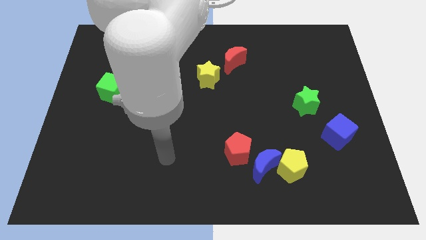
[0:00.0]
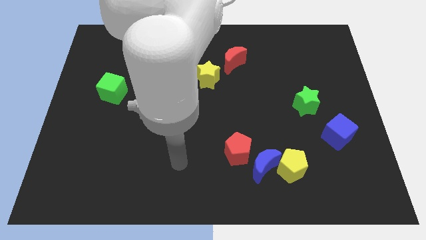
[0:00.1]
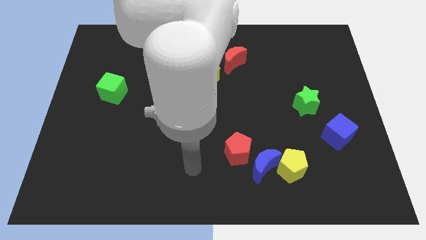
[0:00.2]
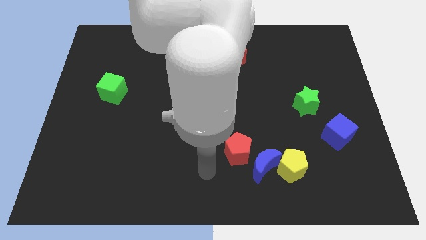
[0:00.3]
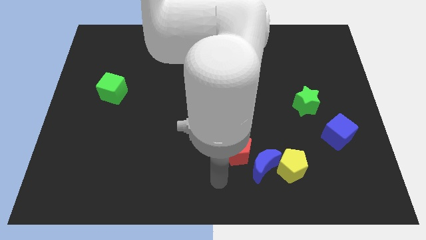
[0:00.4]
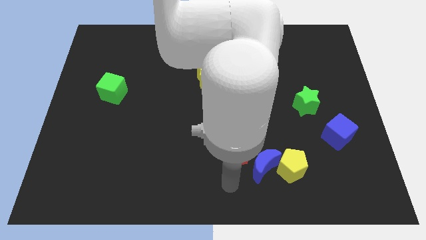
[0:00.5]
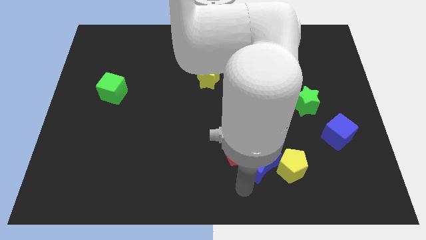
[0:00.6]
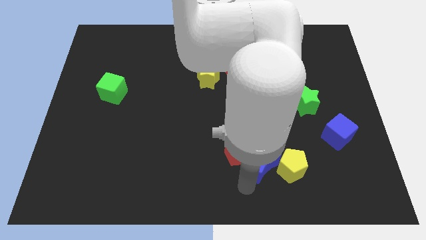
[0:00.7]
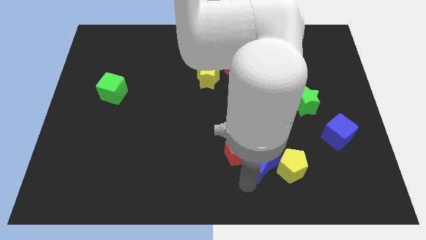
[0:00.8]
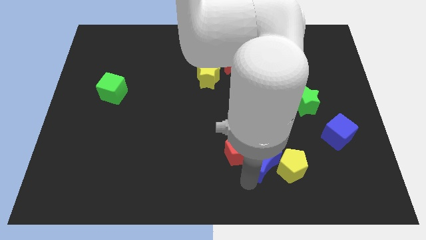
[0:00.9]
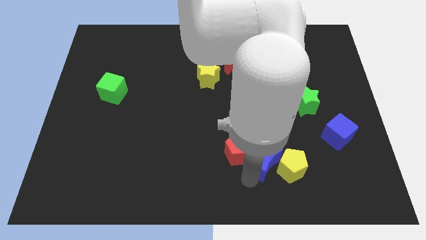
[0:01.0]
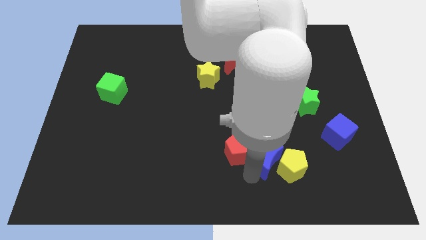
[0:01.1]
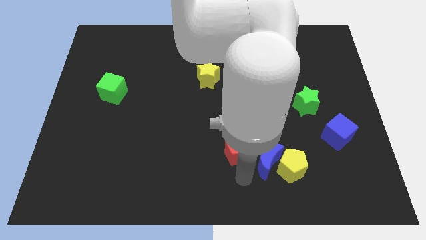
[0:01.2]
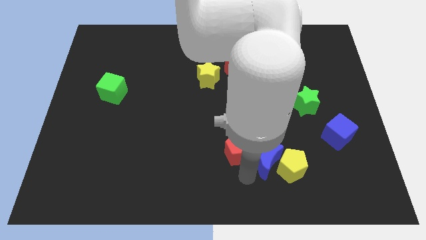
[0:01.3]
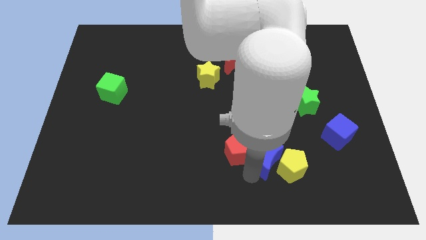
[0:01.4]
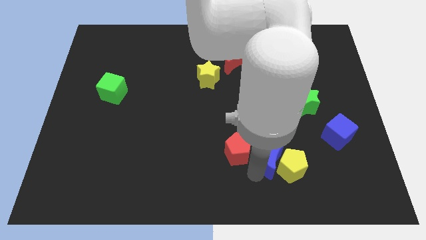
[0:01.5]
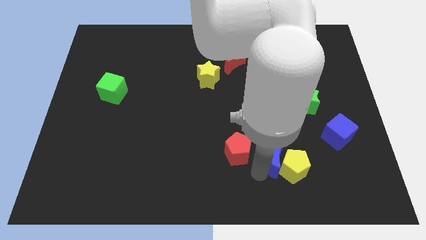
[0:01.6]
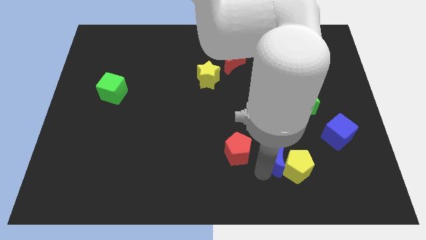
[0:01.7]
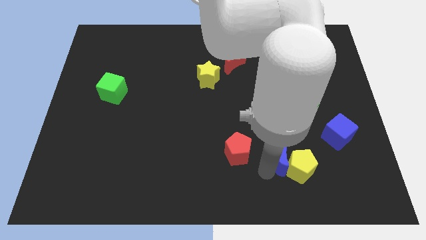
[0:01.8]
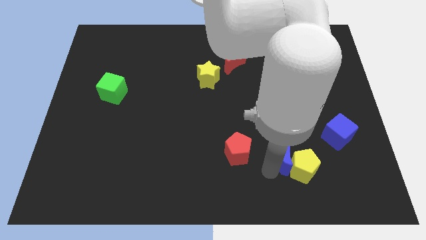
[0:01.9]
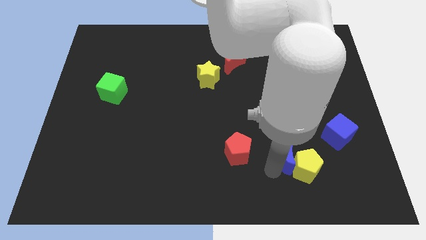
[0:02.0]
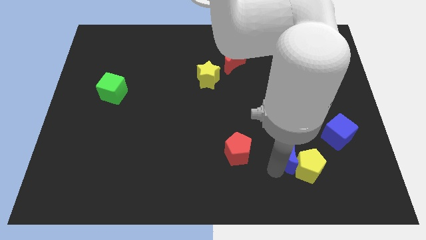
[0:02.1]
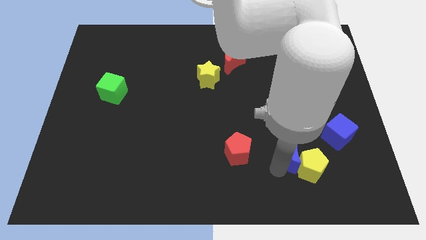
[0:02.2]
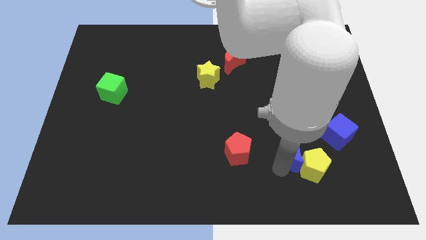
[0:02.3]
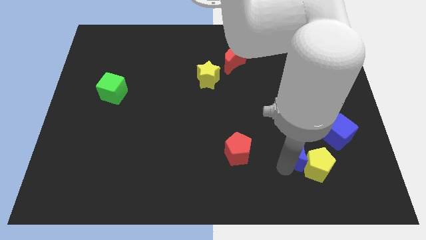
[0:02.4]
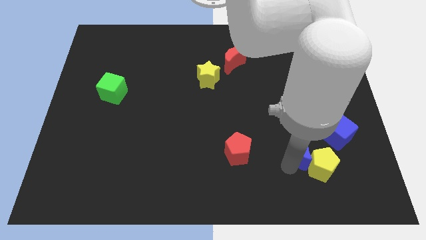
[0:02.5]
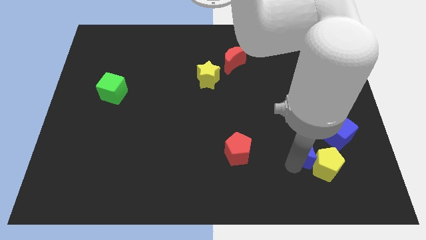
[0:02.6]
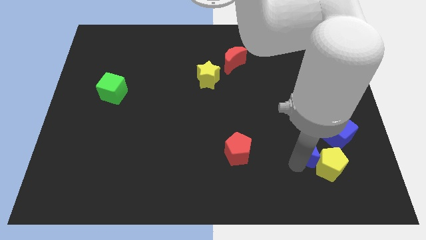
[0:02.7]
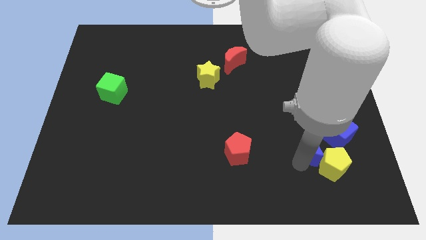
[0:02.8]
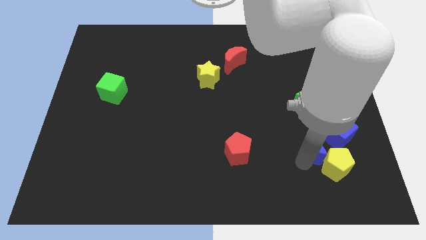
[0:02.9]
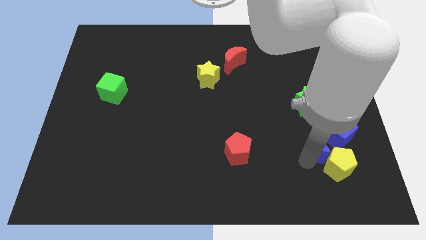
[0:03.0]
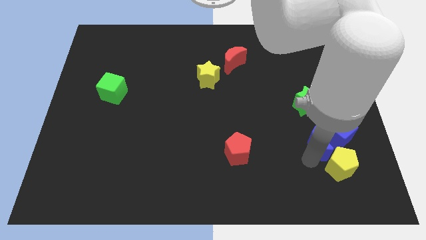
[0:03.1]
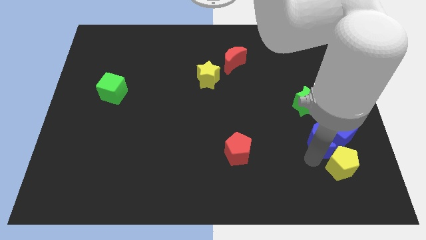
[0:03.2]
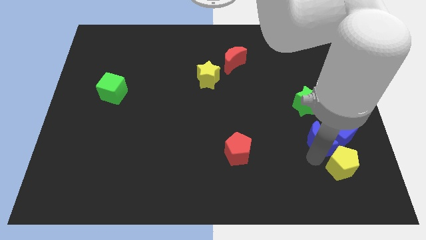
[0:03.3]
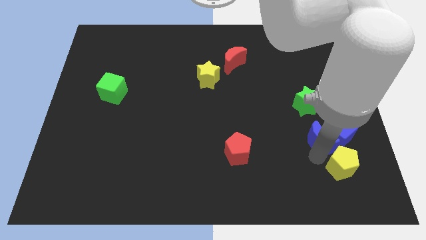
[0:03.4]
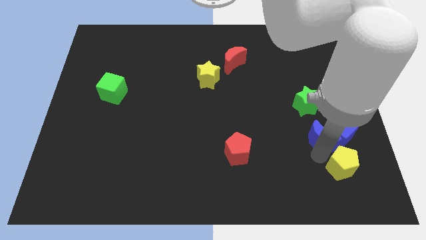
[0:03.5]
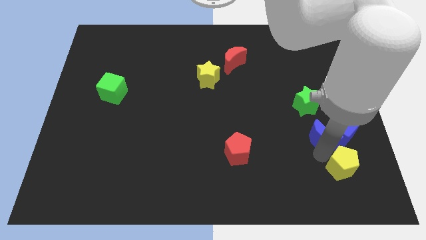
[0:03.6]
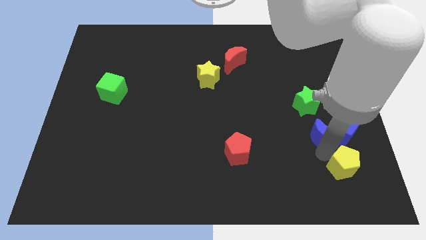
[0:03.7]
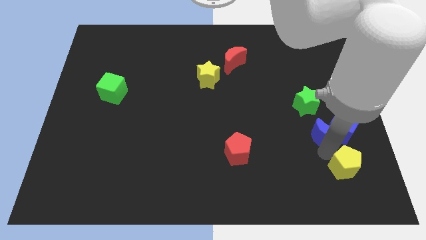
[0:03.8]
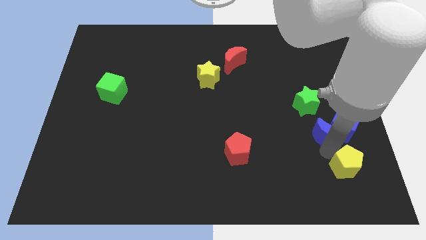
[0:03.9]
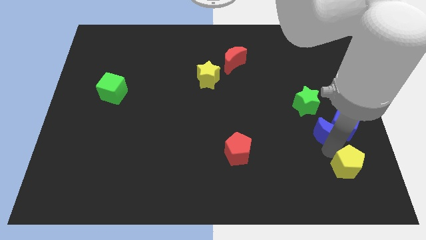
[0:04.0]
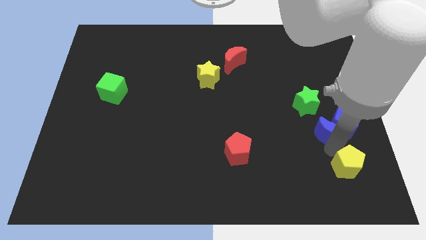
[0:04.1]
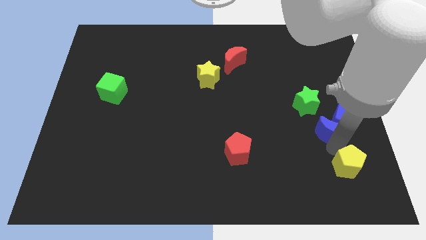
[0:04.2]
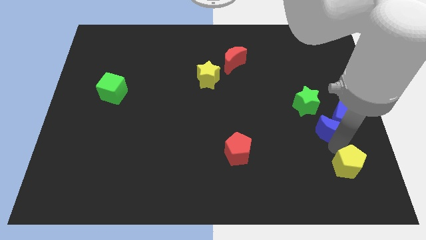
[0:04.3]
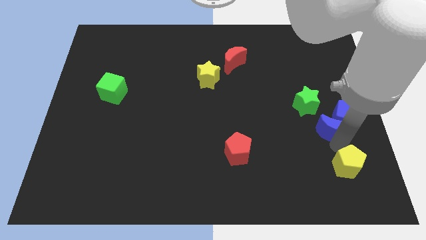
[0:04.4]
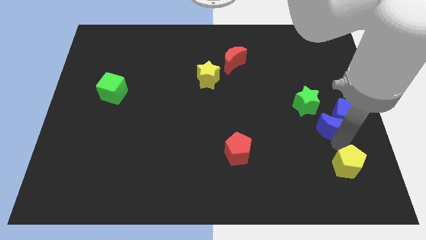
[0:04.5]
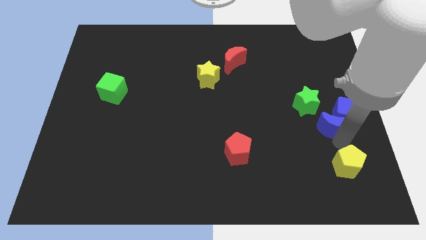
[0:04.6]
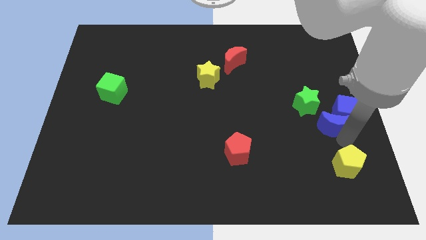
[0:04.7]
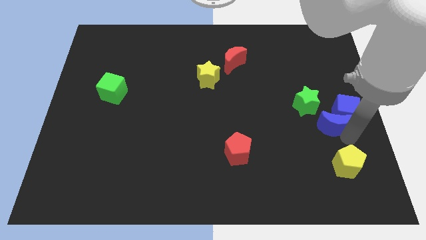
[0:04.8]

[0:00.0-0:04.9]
push the blue moon to the right side of the board

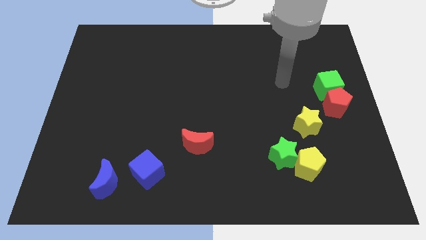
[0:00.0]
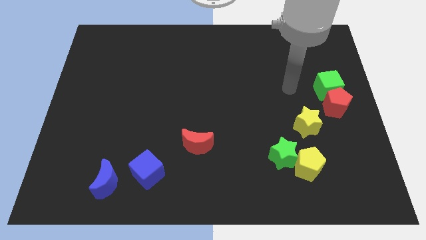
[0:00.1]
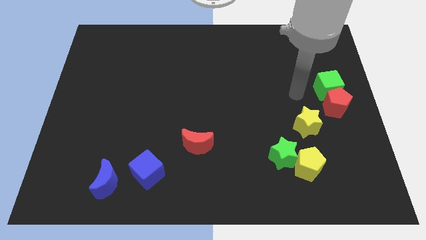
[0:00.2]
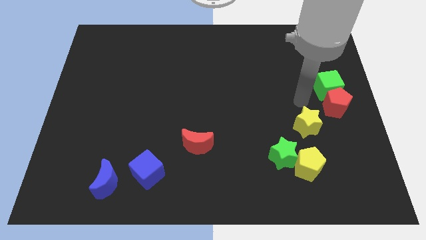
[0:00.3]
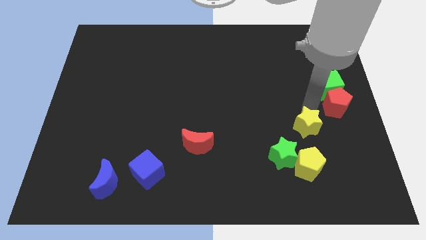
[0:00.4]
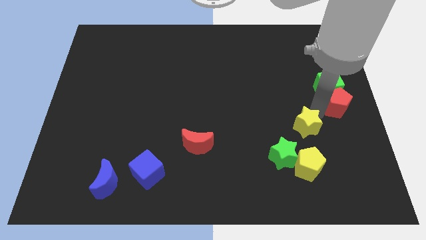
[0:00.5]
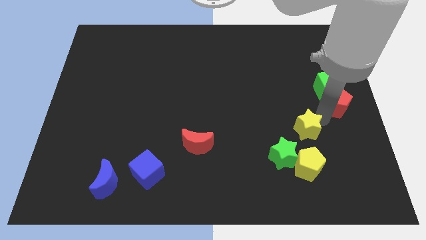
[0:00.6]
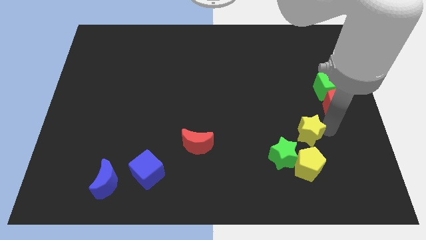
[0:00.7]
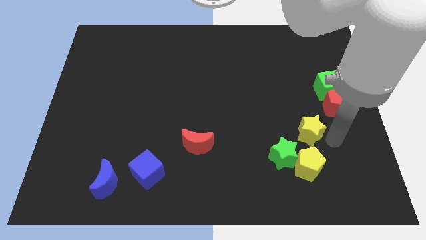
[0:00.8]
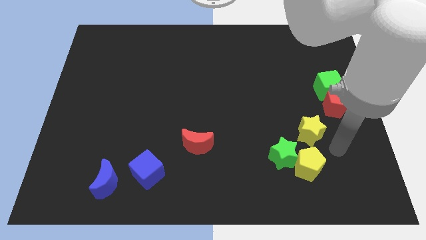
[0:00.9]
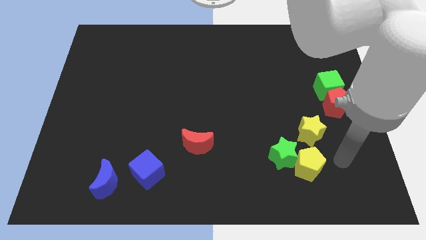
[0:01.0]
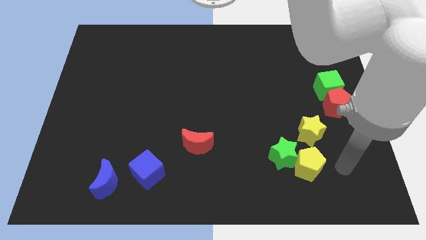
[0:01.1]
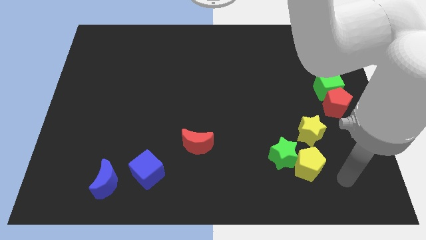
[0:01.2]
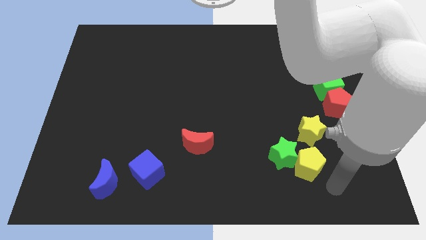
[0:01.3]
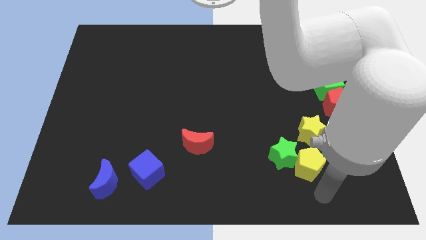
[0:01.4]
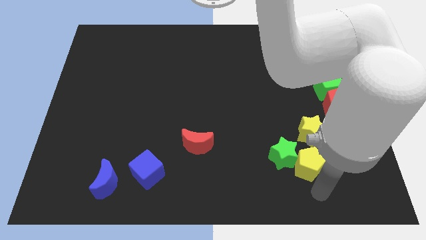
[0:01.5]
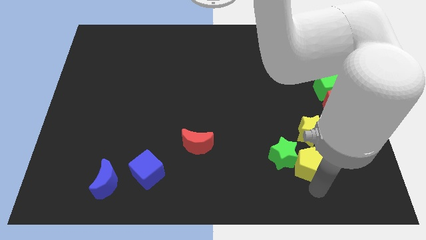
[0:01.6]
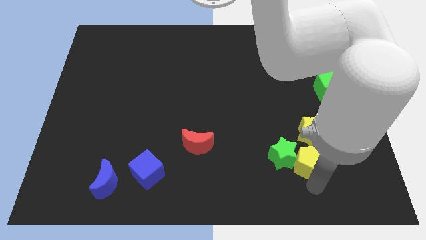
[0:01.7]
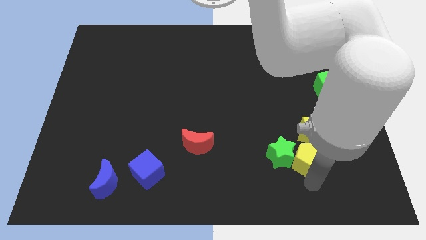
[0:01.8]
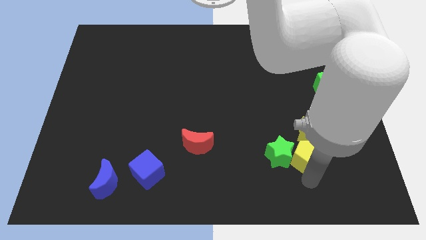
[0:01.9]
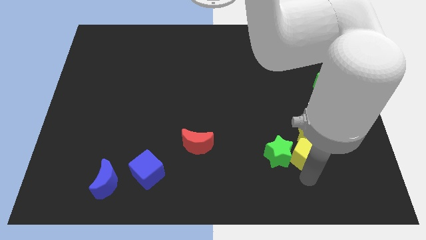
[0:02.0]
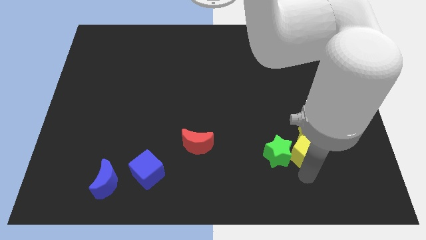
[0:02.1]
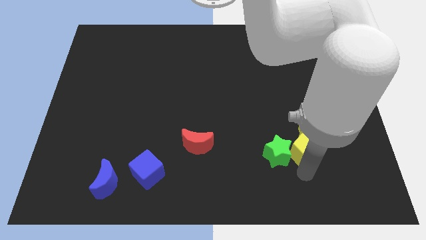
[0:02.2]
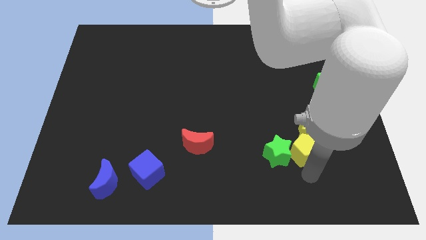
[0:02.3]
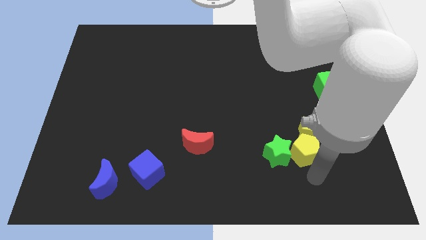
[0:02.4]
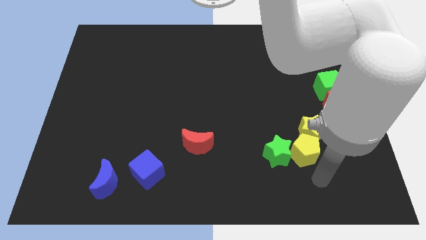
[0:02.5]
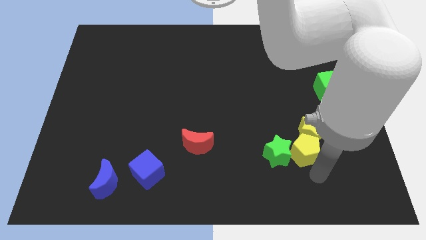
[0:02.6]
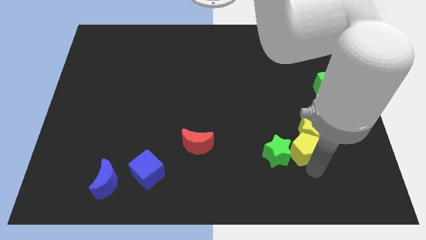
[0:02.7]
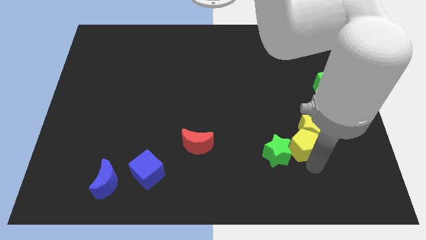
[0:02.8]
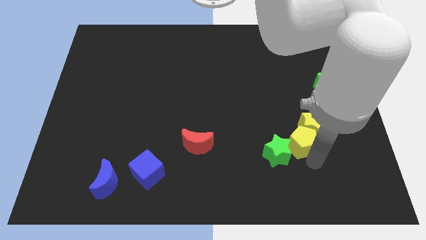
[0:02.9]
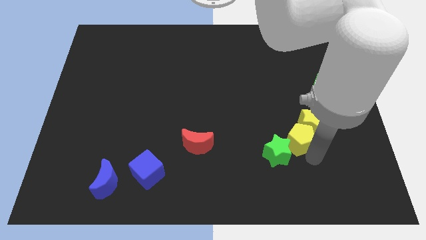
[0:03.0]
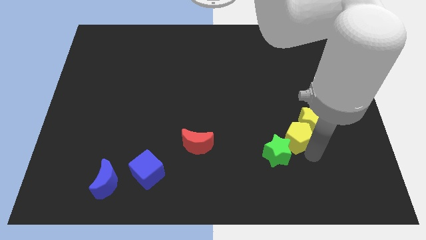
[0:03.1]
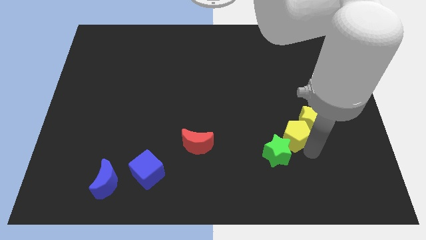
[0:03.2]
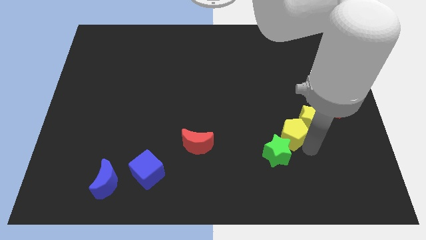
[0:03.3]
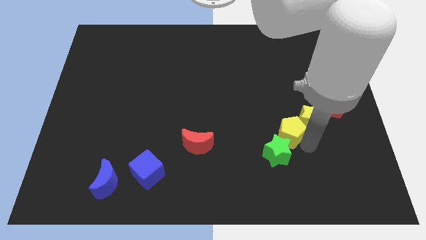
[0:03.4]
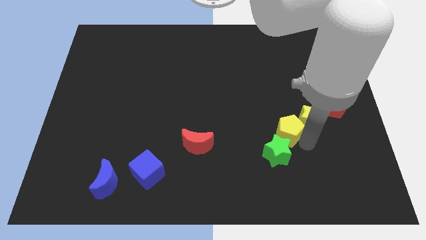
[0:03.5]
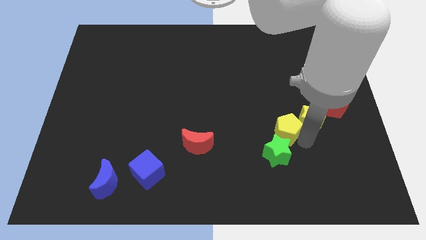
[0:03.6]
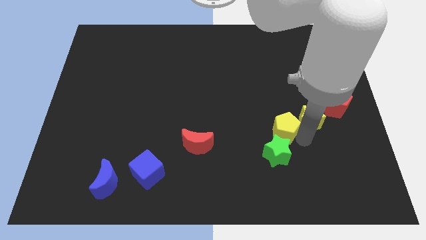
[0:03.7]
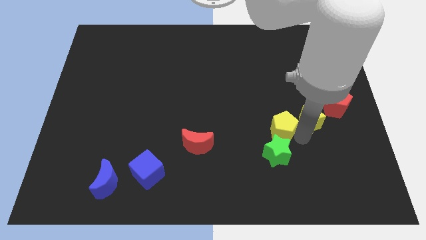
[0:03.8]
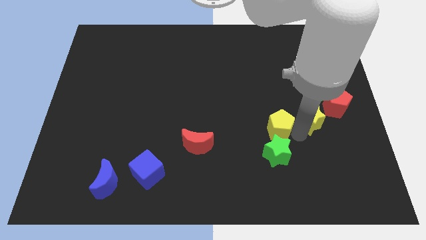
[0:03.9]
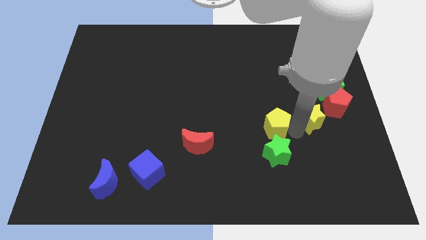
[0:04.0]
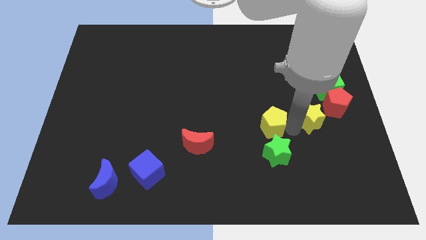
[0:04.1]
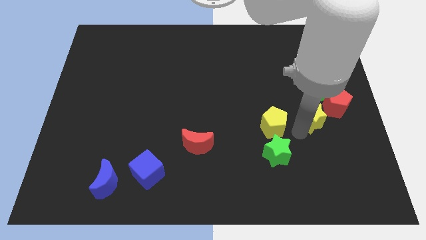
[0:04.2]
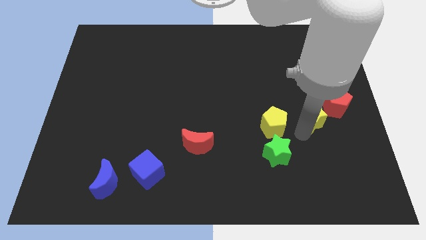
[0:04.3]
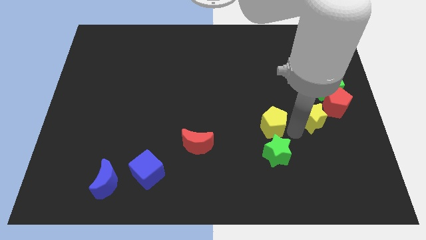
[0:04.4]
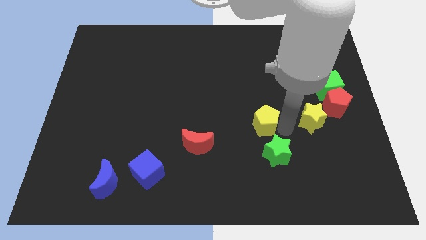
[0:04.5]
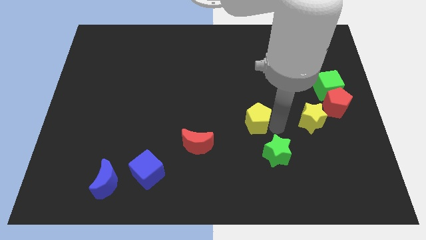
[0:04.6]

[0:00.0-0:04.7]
put the yellow pentagon to the center of the board
